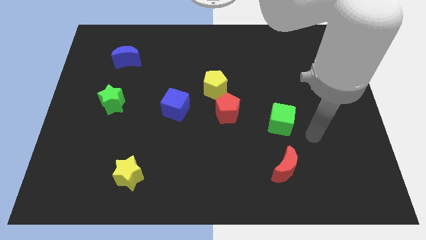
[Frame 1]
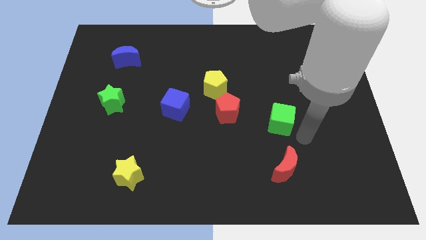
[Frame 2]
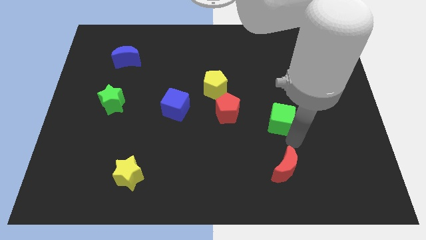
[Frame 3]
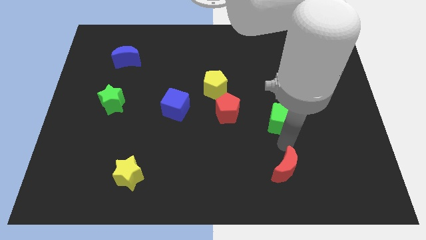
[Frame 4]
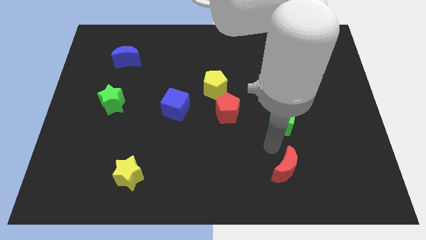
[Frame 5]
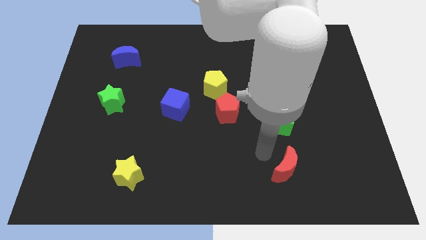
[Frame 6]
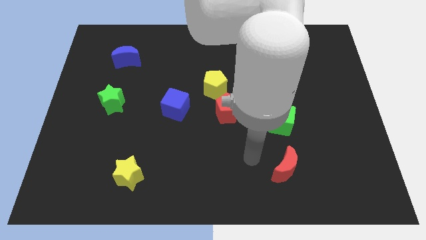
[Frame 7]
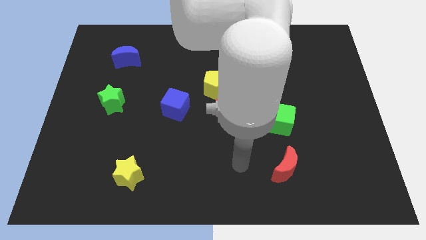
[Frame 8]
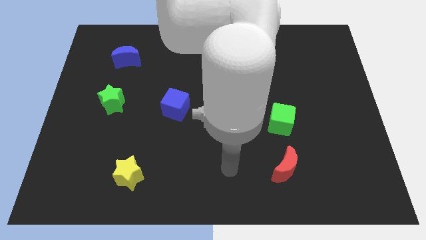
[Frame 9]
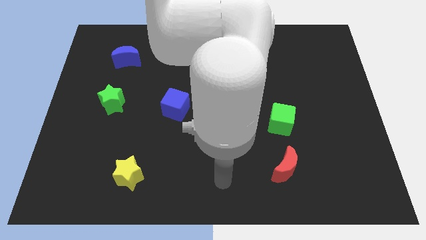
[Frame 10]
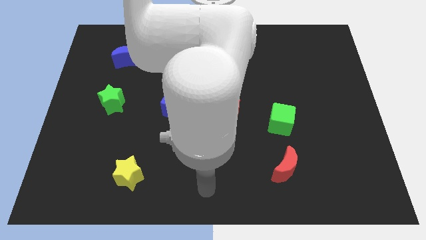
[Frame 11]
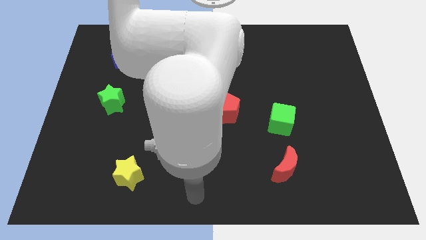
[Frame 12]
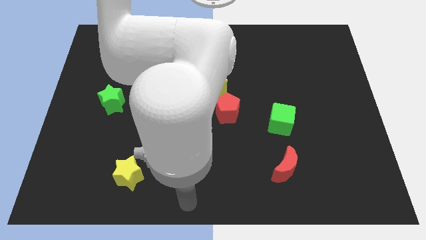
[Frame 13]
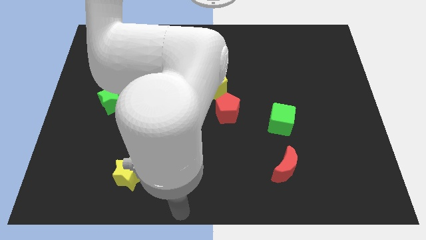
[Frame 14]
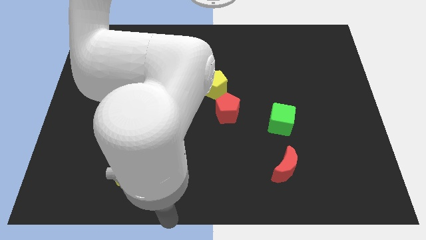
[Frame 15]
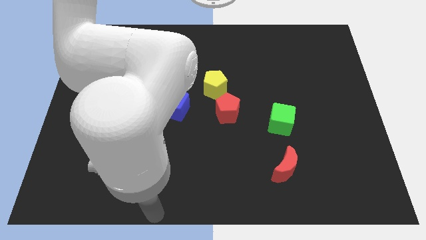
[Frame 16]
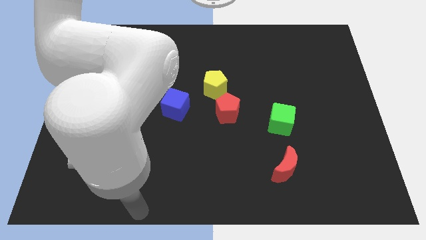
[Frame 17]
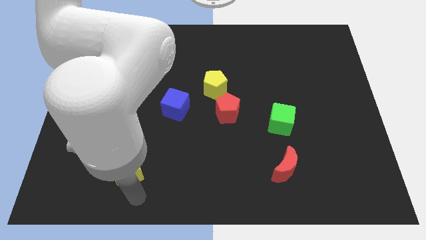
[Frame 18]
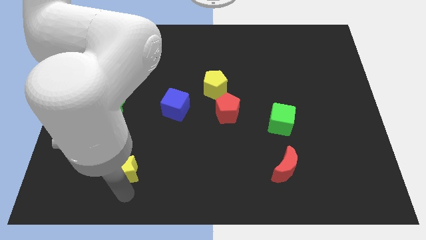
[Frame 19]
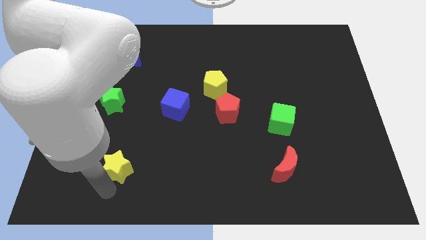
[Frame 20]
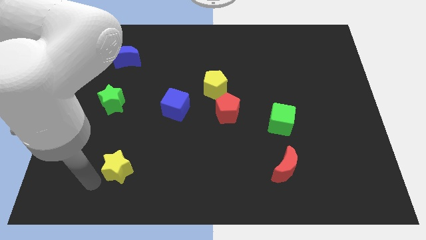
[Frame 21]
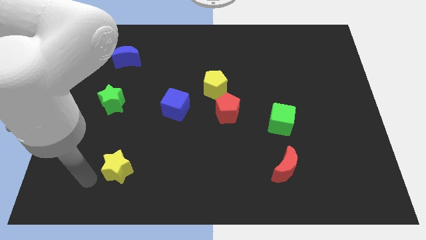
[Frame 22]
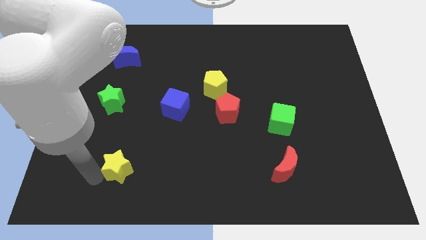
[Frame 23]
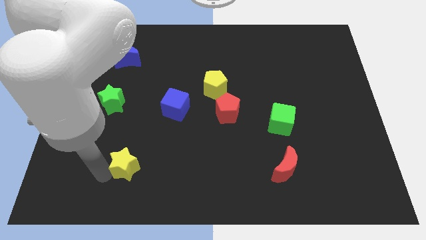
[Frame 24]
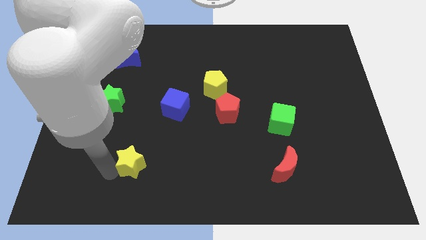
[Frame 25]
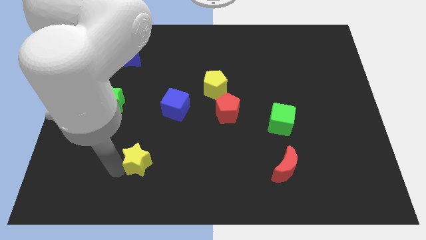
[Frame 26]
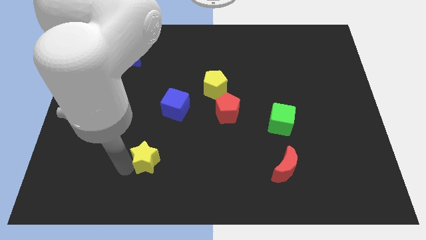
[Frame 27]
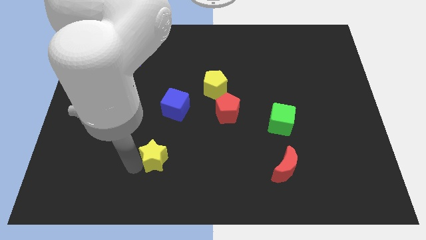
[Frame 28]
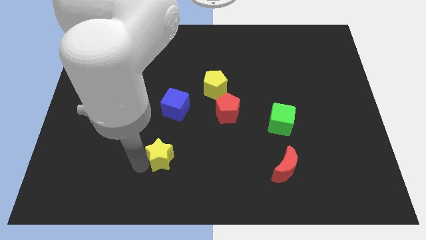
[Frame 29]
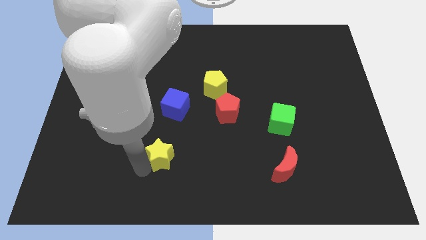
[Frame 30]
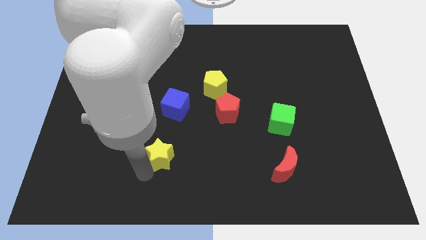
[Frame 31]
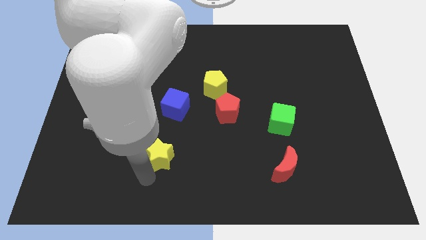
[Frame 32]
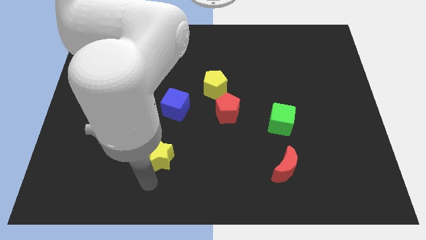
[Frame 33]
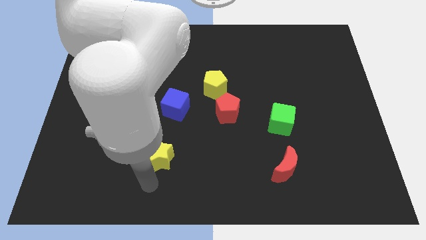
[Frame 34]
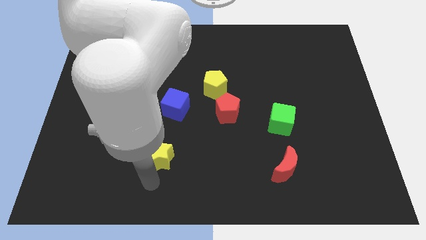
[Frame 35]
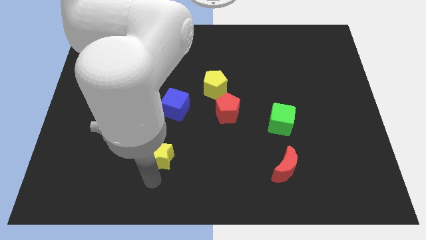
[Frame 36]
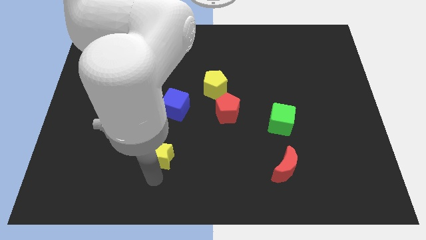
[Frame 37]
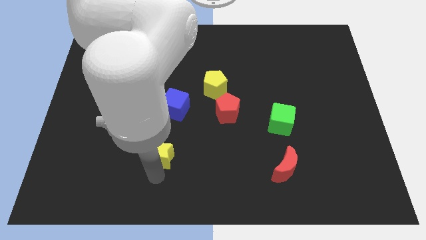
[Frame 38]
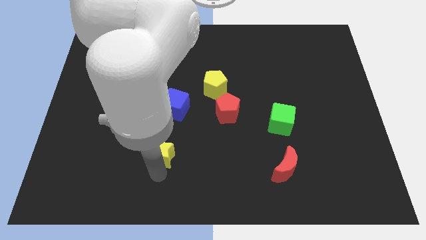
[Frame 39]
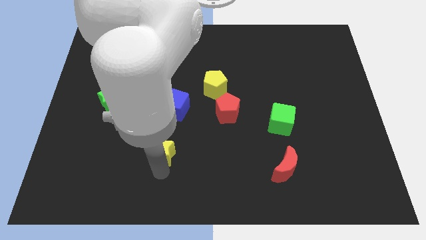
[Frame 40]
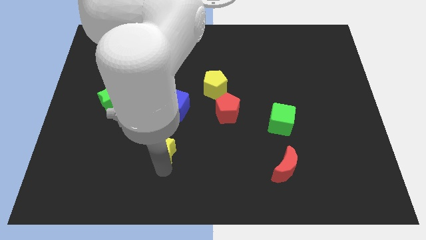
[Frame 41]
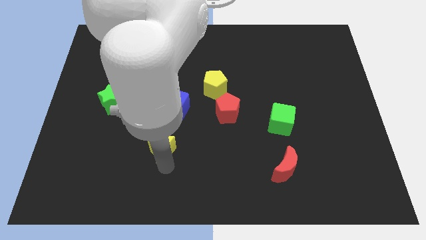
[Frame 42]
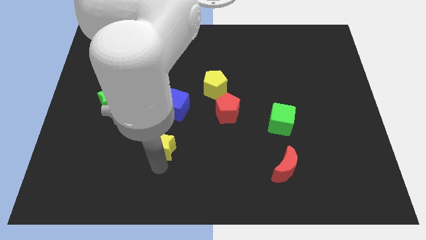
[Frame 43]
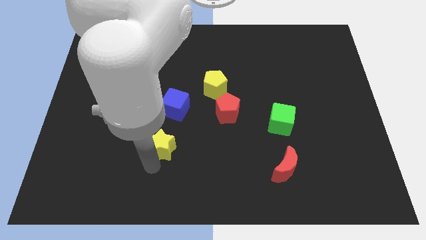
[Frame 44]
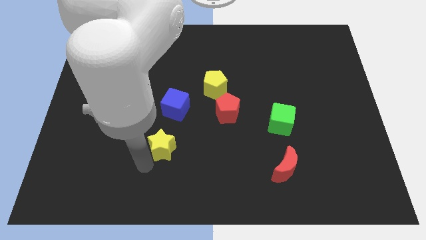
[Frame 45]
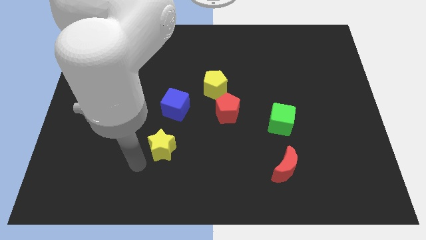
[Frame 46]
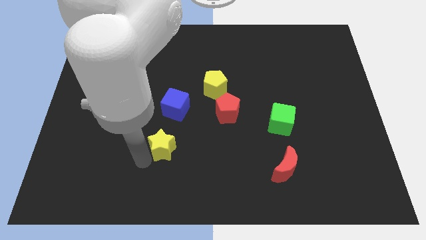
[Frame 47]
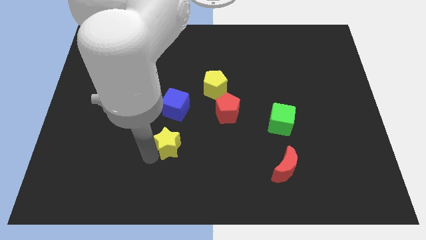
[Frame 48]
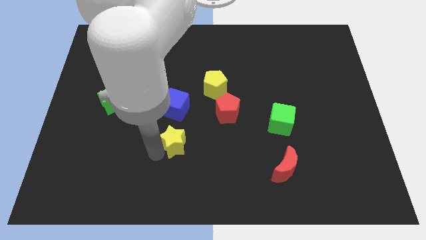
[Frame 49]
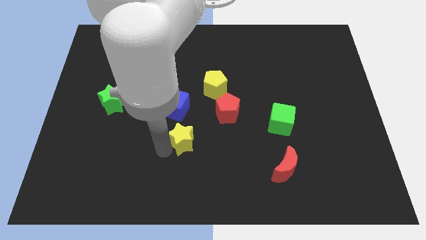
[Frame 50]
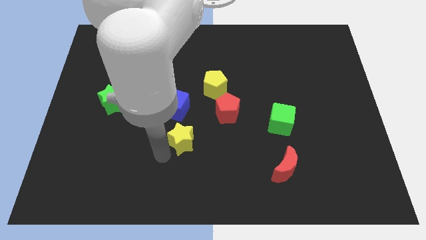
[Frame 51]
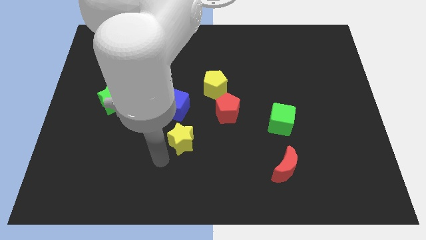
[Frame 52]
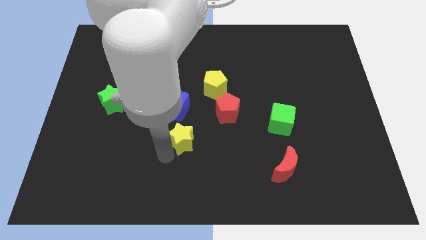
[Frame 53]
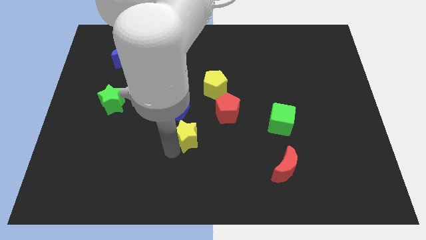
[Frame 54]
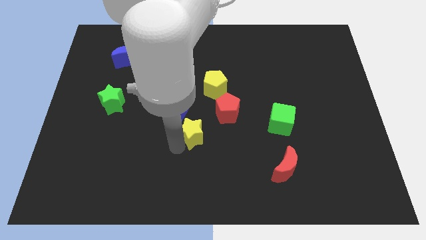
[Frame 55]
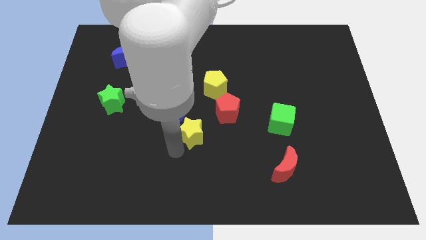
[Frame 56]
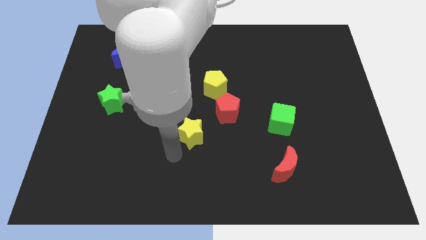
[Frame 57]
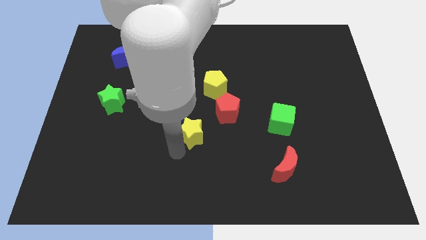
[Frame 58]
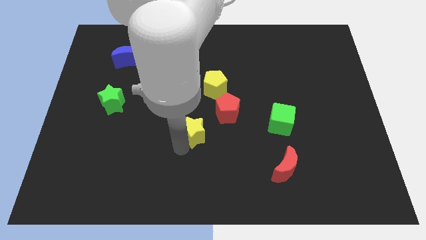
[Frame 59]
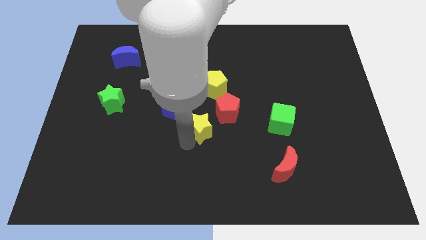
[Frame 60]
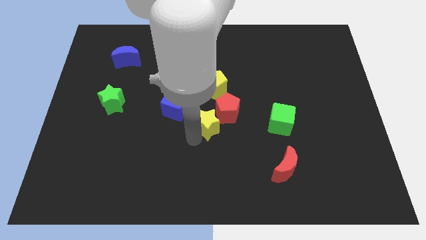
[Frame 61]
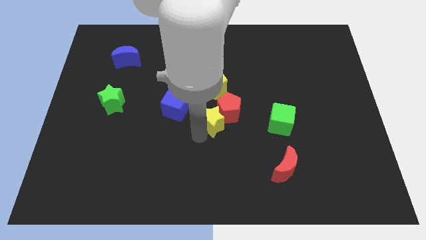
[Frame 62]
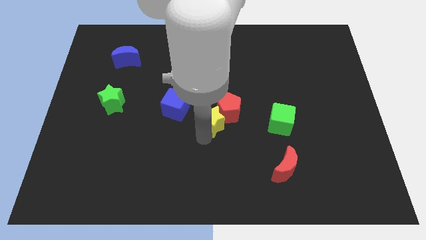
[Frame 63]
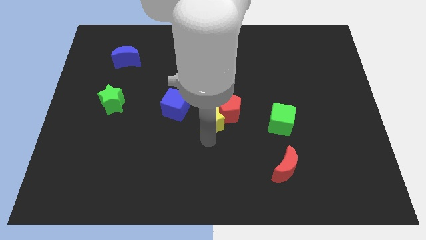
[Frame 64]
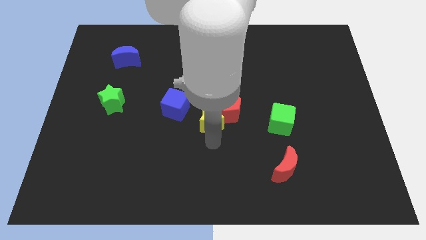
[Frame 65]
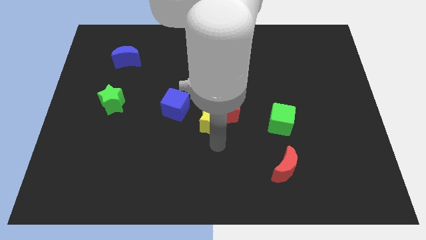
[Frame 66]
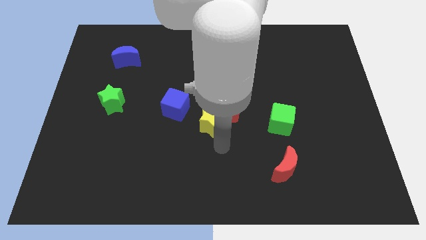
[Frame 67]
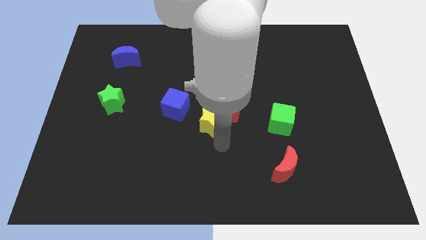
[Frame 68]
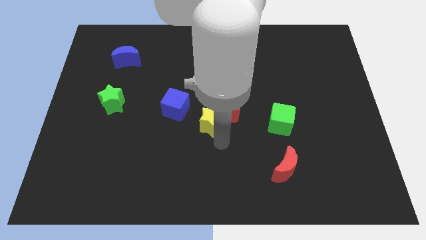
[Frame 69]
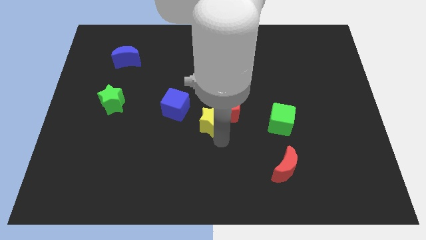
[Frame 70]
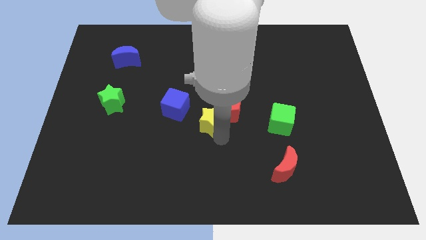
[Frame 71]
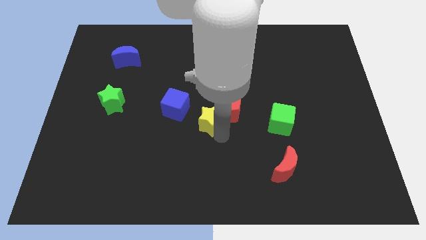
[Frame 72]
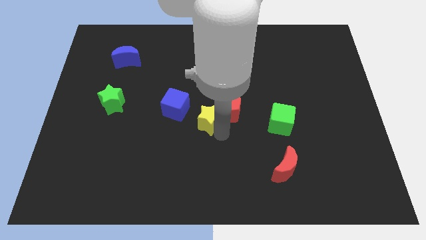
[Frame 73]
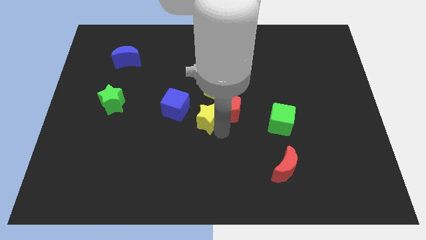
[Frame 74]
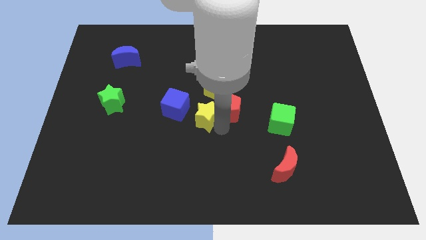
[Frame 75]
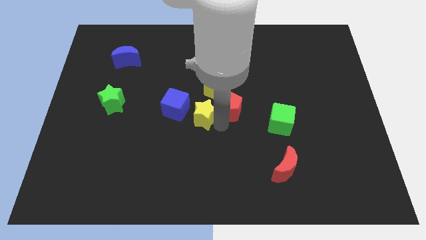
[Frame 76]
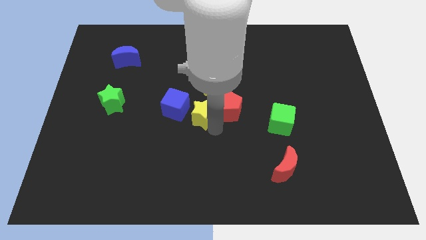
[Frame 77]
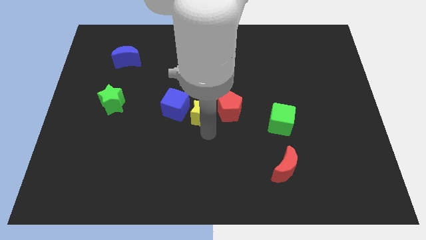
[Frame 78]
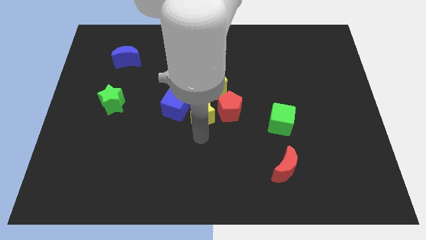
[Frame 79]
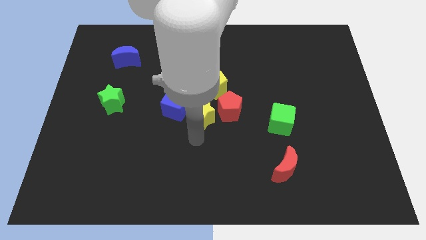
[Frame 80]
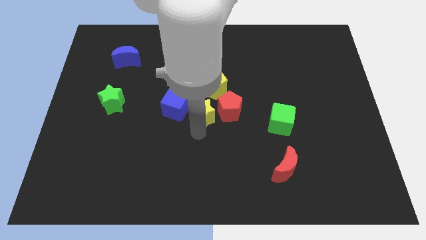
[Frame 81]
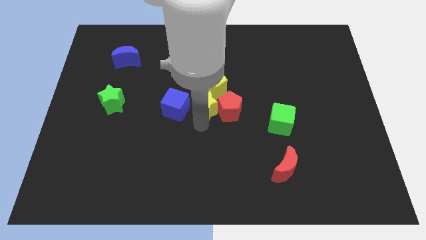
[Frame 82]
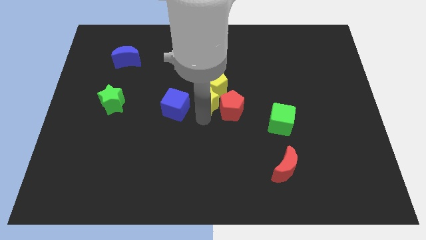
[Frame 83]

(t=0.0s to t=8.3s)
slide the yellow star close to the yellow pentagon
